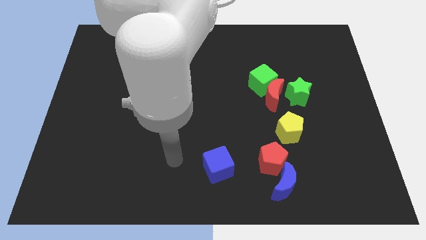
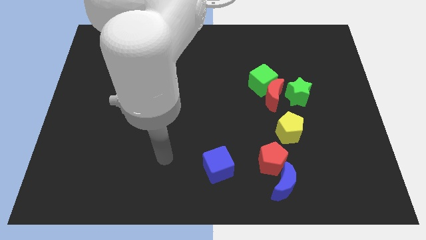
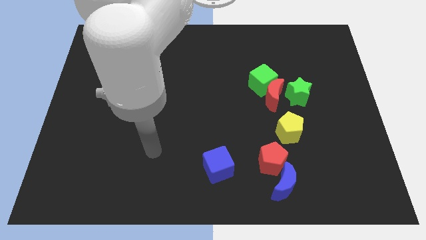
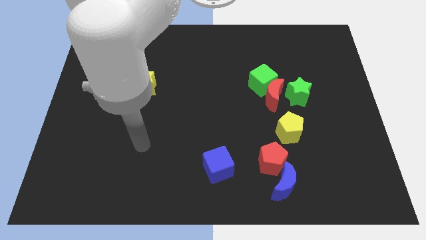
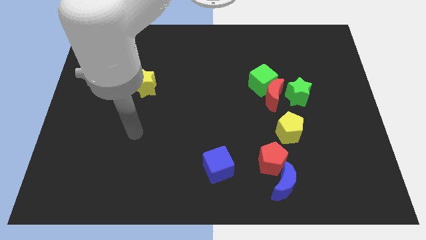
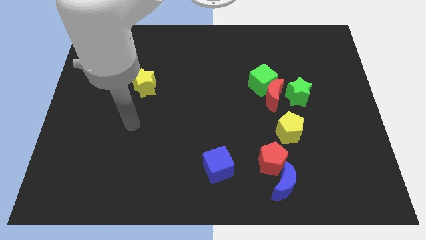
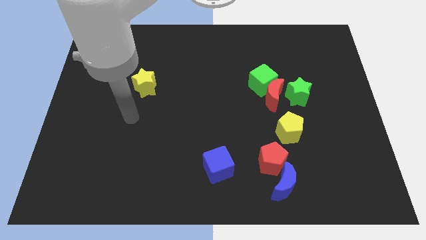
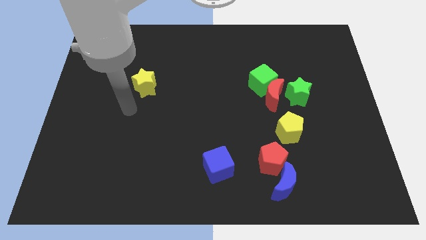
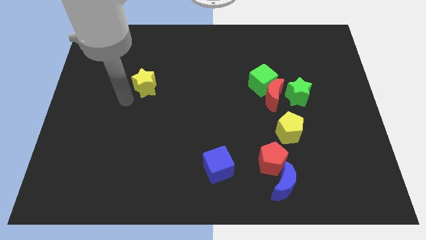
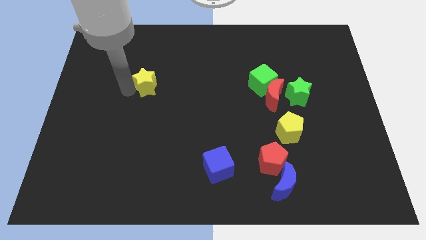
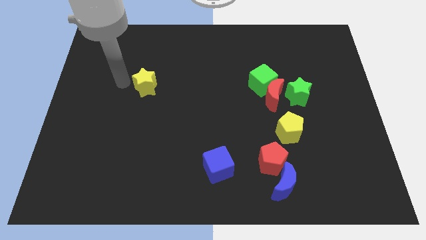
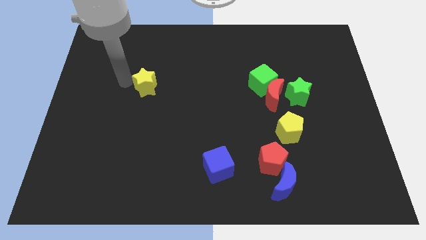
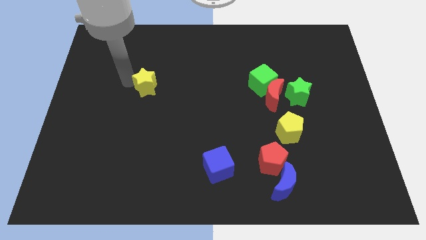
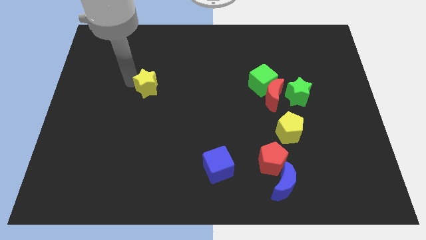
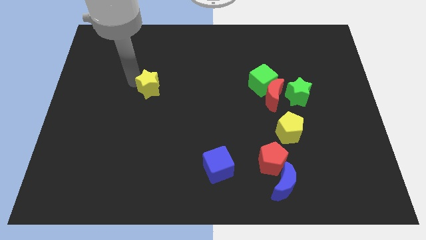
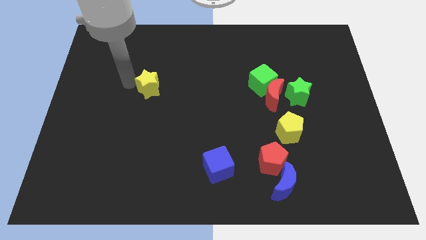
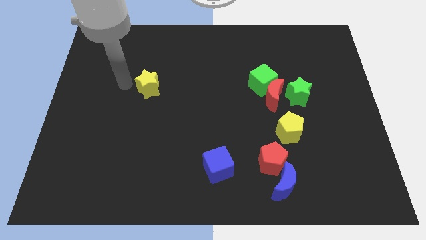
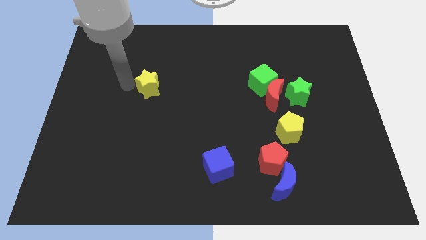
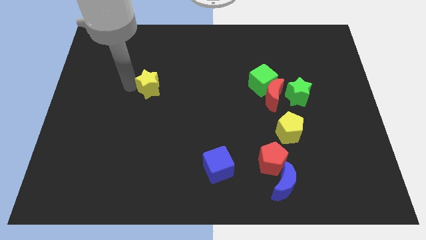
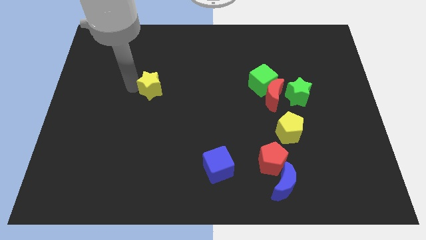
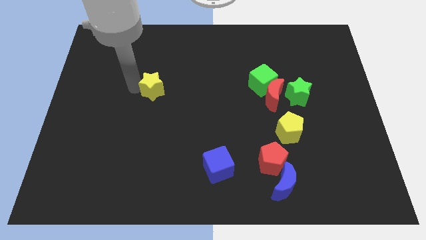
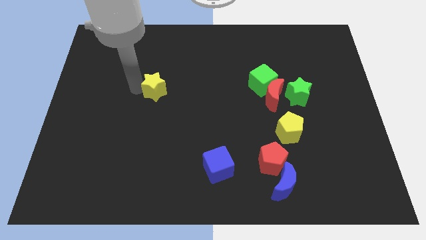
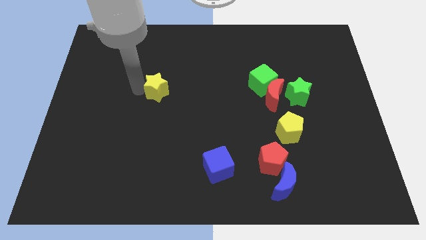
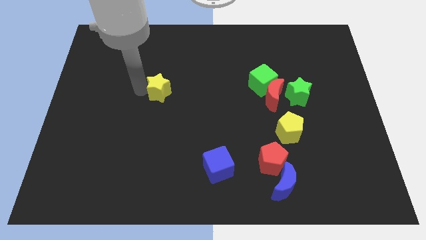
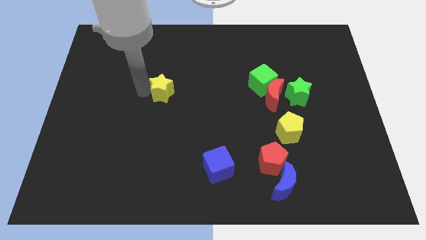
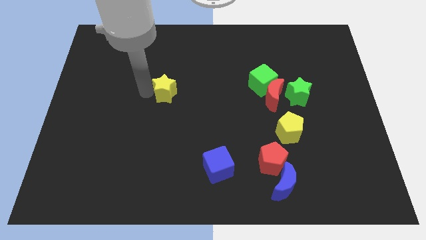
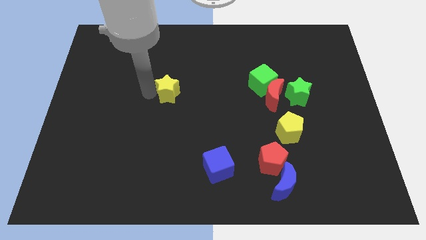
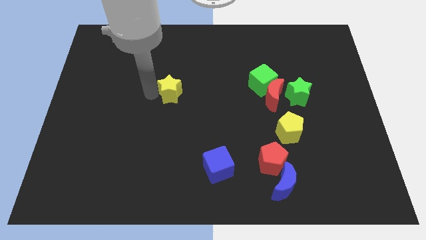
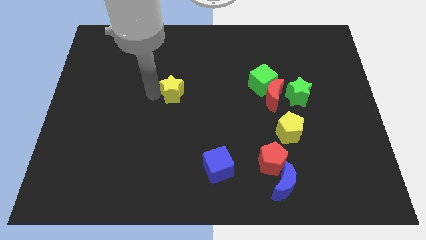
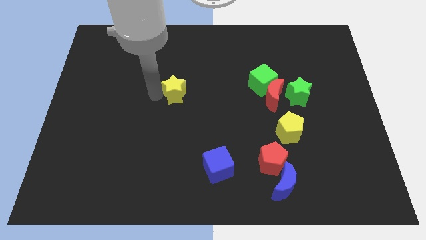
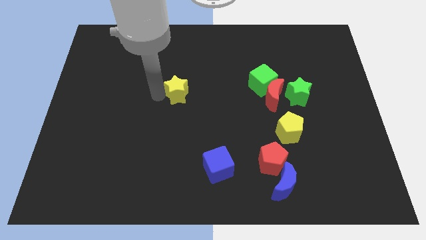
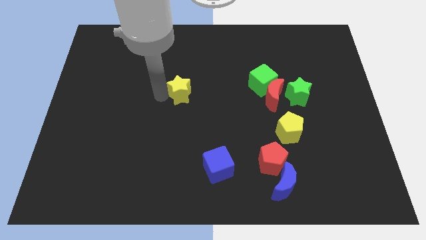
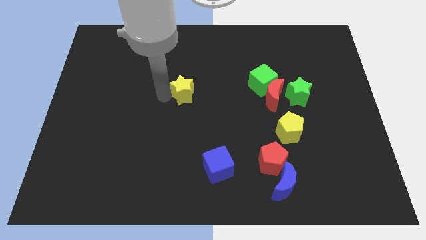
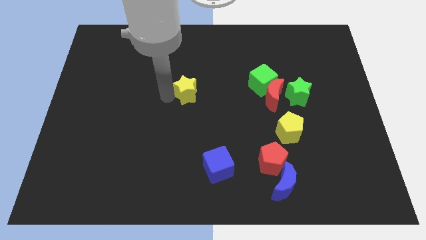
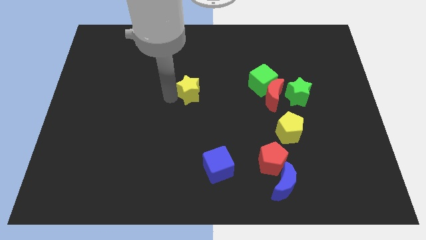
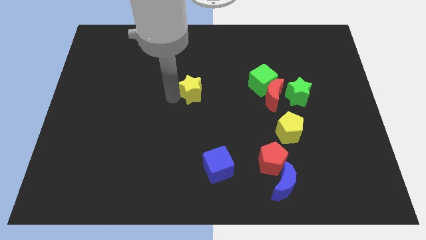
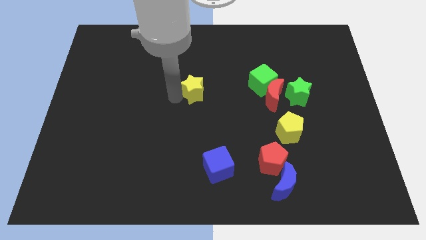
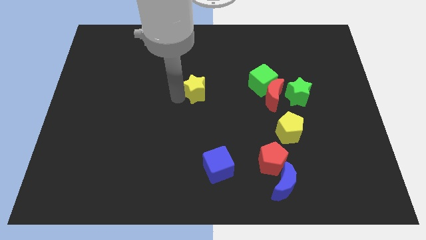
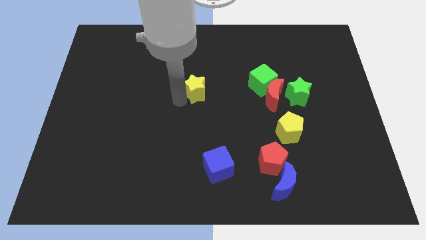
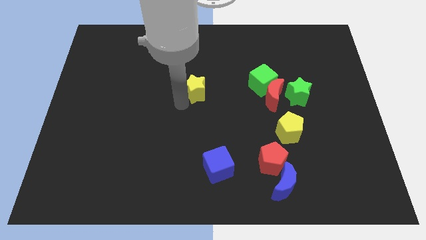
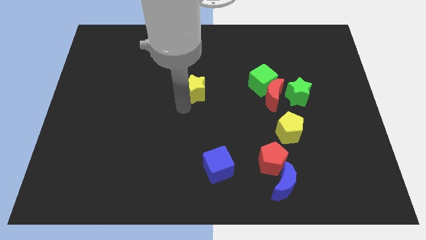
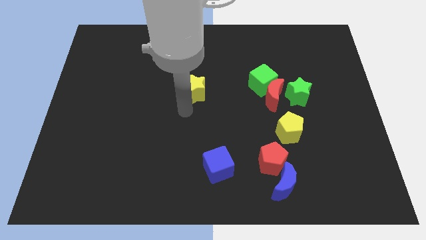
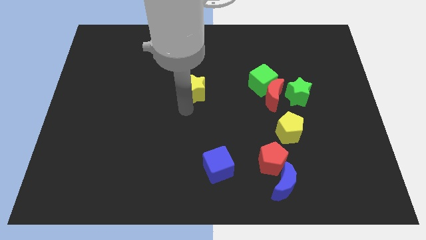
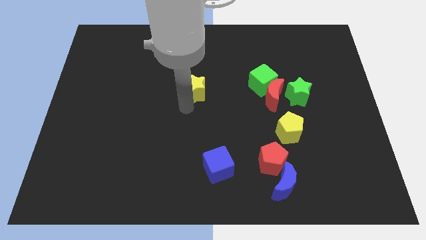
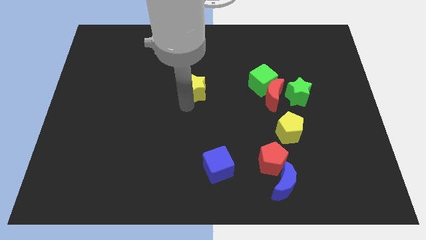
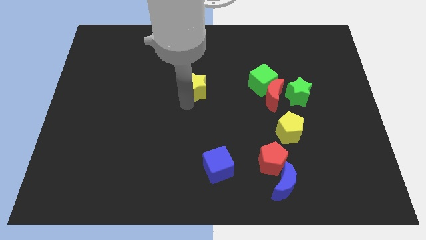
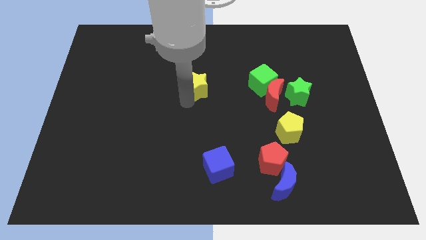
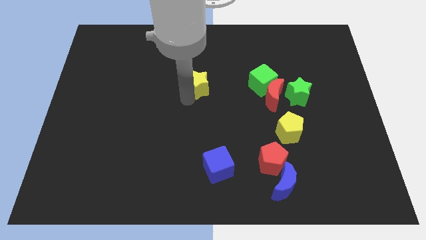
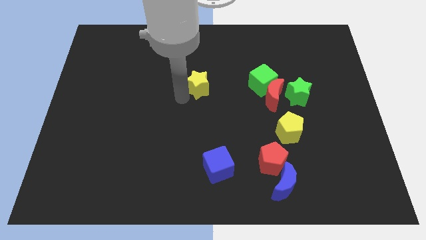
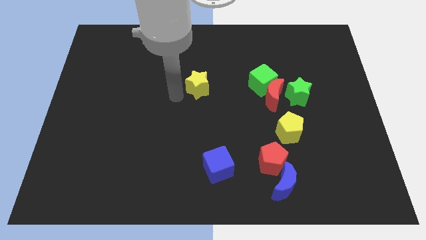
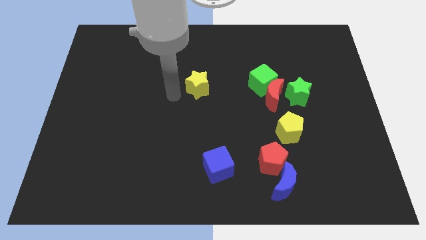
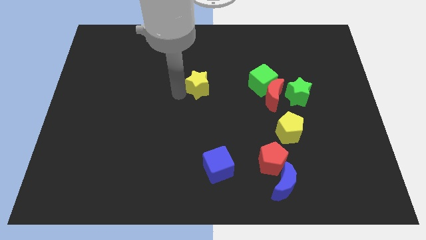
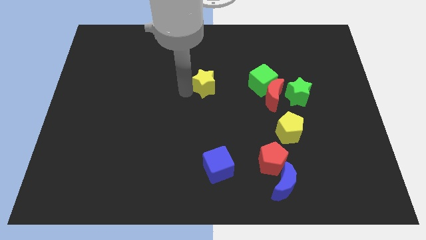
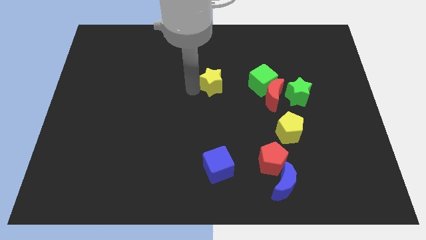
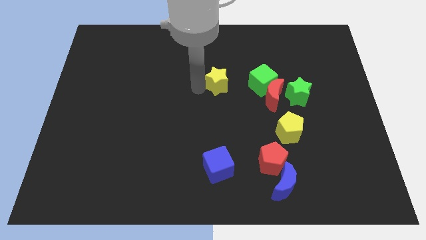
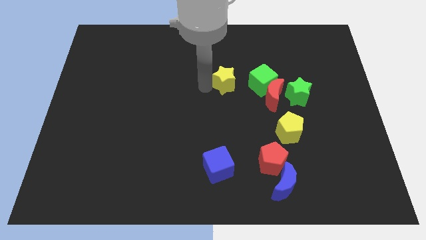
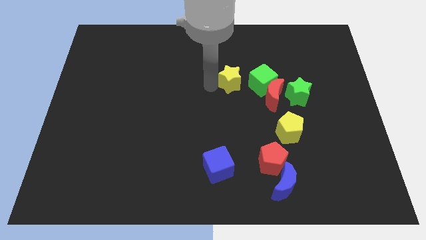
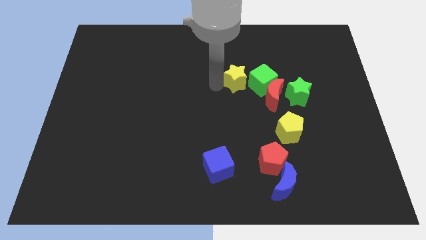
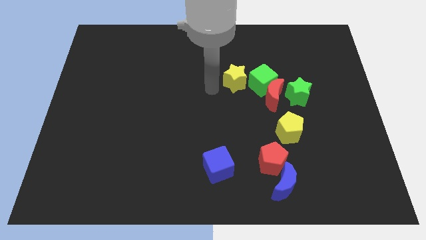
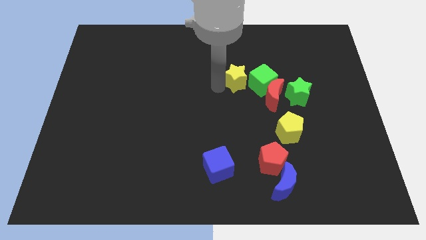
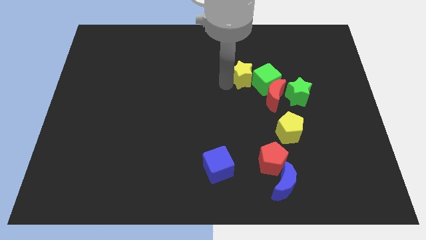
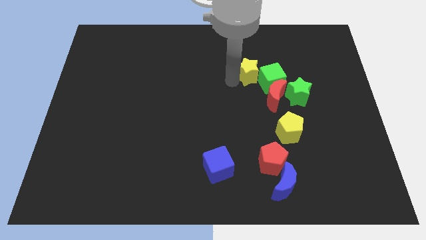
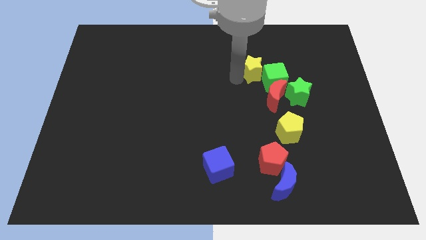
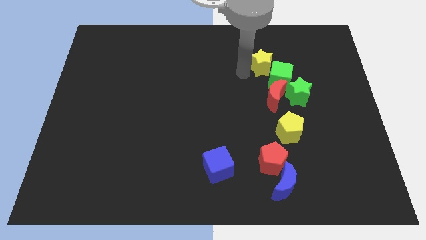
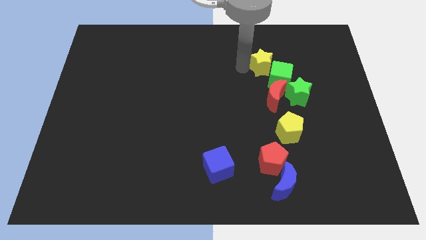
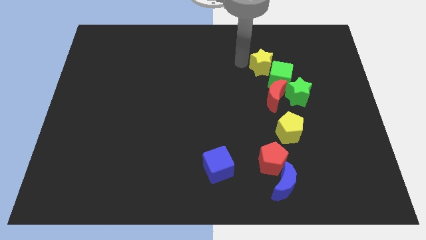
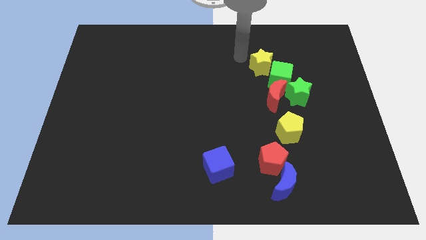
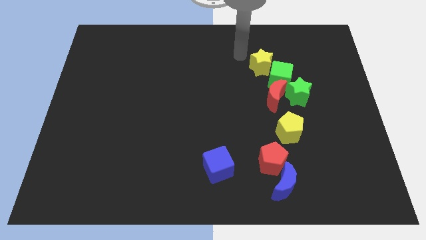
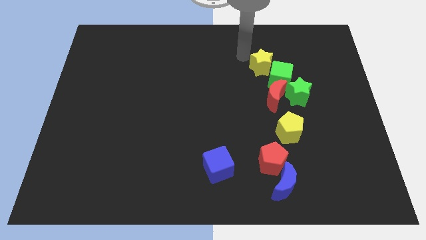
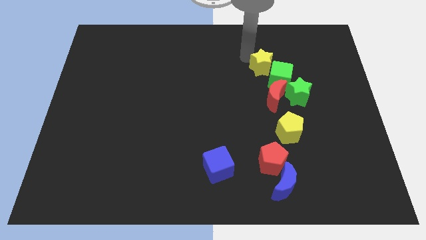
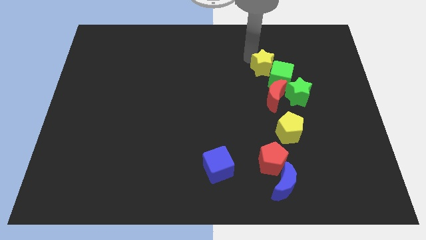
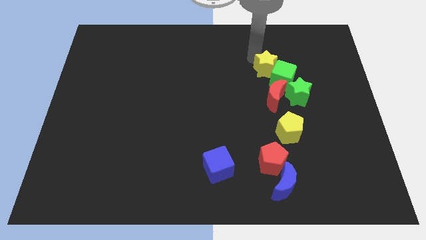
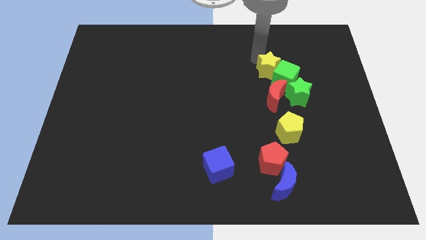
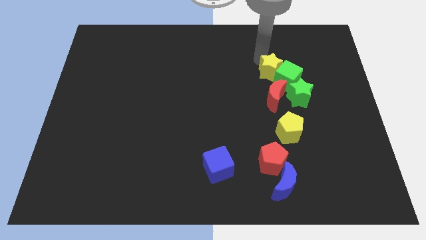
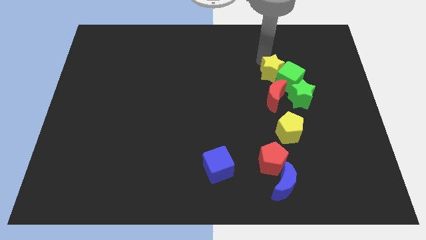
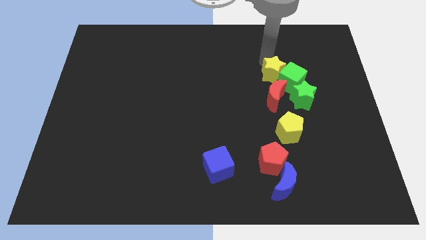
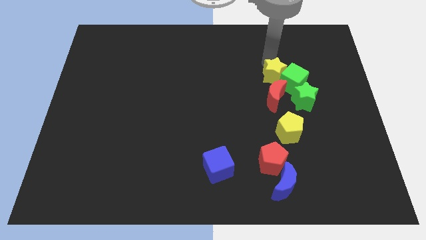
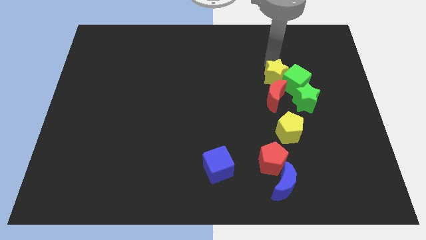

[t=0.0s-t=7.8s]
put the yellow star diagonally up and to the right of the red moon

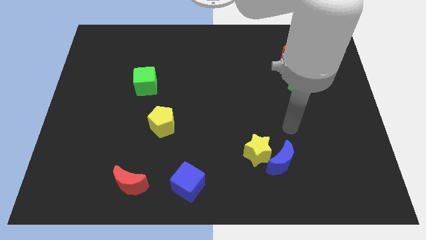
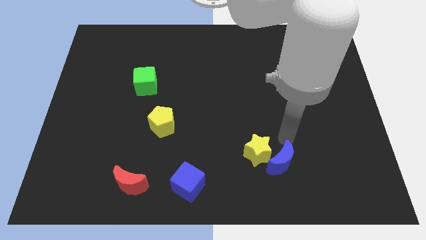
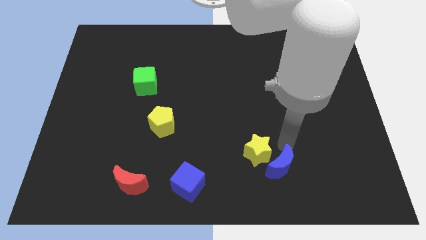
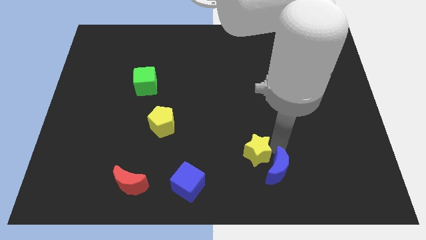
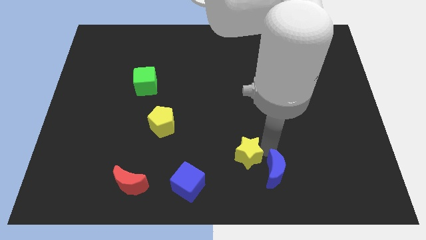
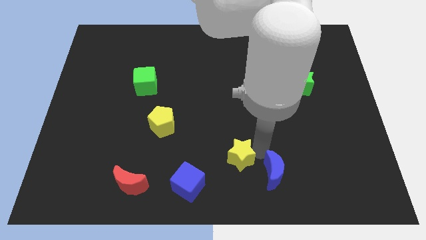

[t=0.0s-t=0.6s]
push the yellow star to the top right side of the blue cube
